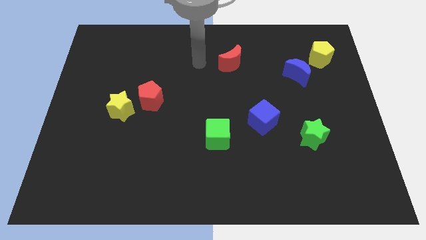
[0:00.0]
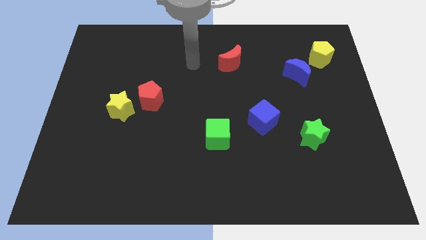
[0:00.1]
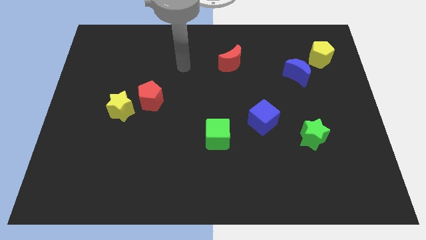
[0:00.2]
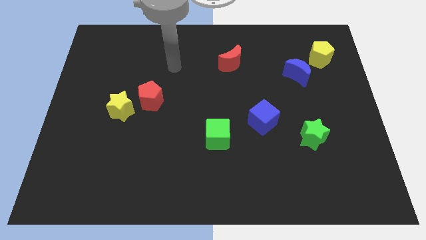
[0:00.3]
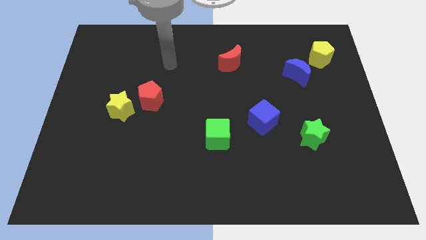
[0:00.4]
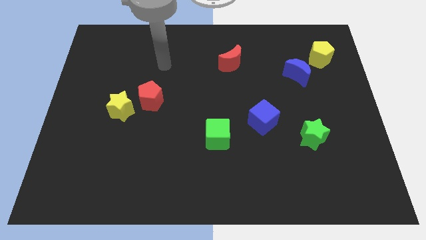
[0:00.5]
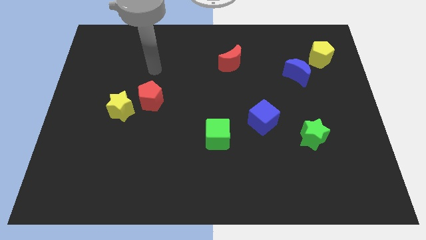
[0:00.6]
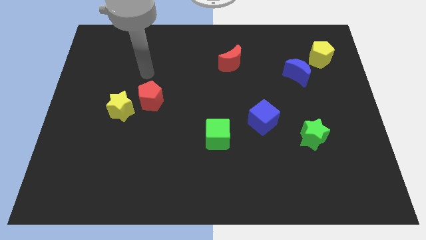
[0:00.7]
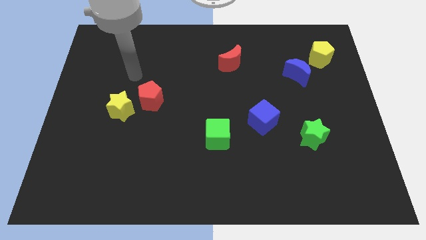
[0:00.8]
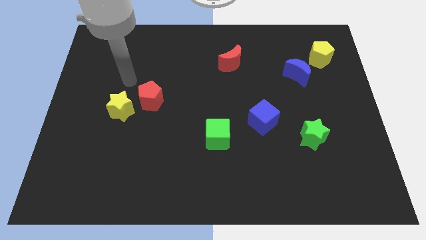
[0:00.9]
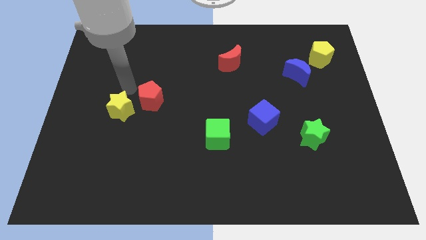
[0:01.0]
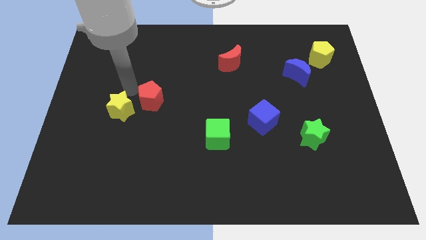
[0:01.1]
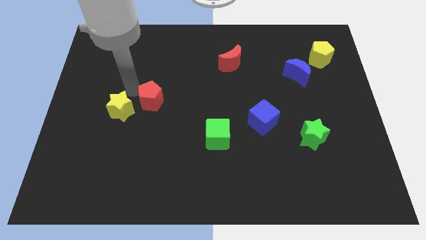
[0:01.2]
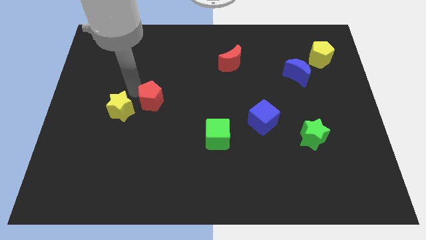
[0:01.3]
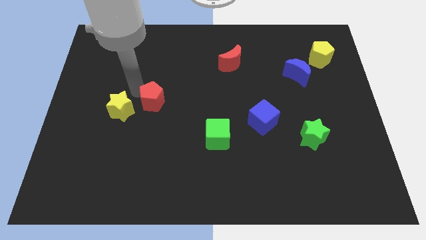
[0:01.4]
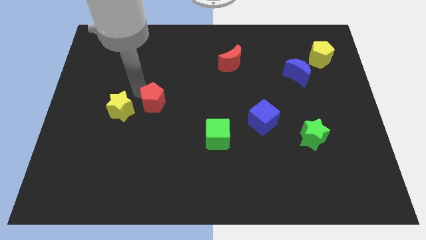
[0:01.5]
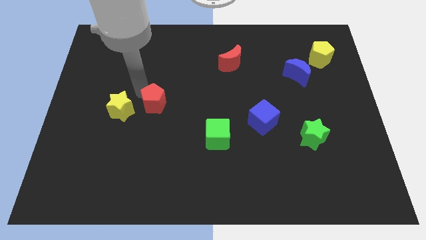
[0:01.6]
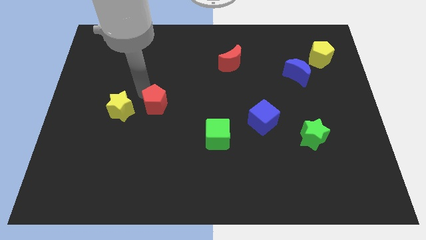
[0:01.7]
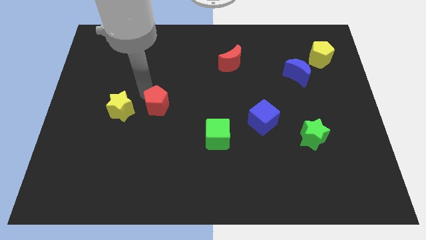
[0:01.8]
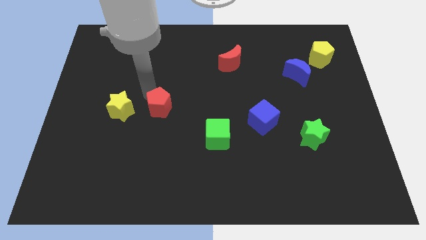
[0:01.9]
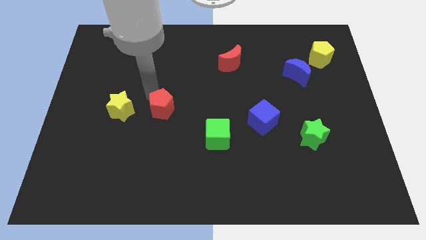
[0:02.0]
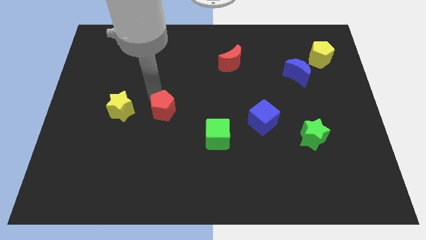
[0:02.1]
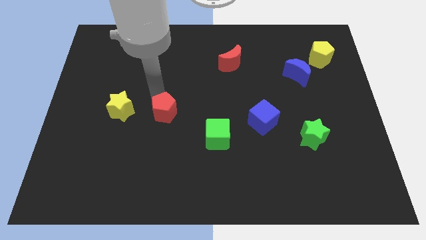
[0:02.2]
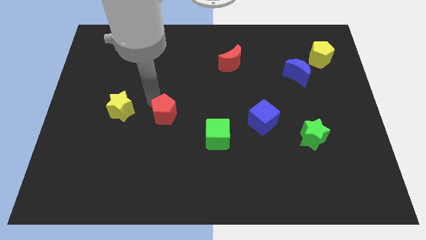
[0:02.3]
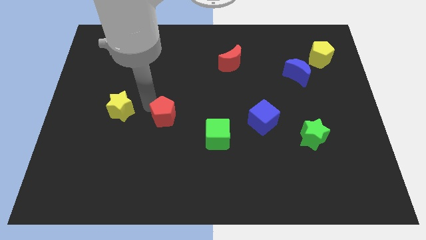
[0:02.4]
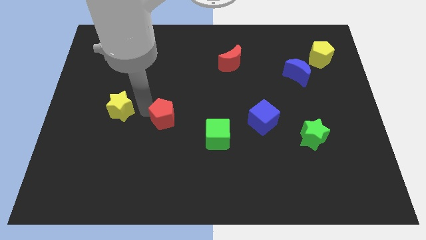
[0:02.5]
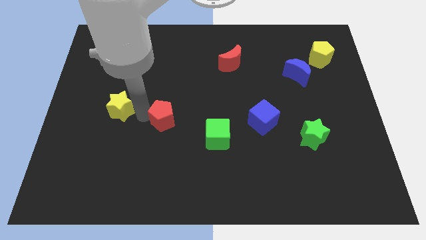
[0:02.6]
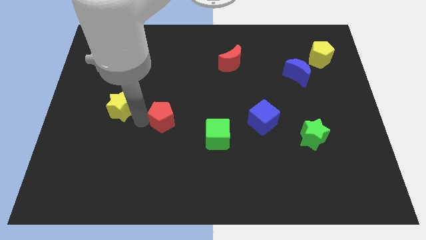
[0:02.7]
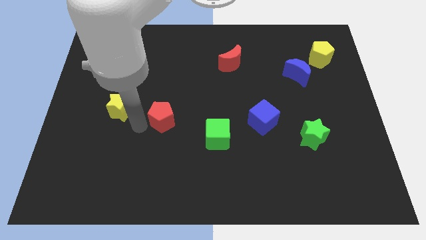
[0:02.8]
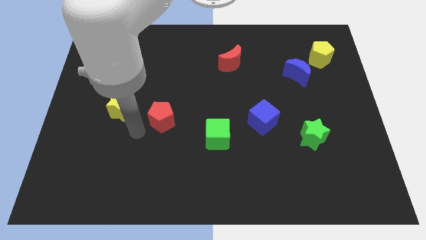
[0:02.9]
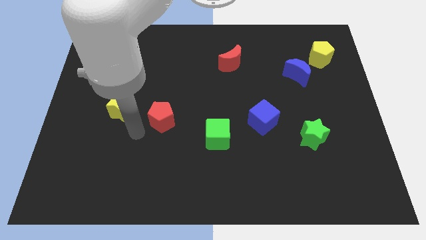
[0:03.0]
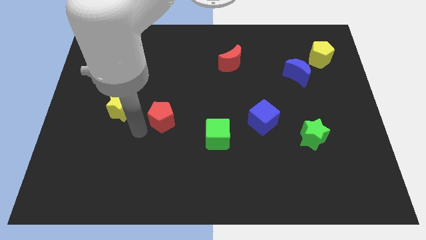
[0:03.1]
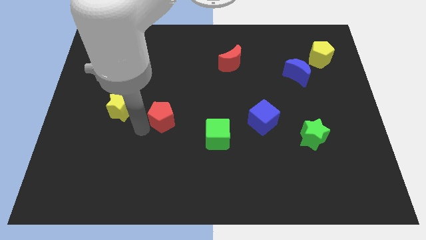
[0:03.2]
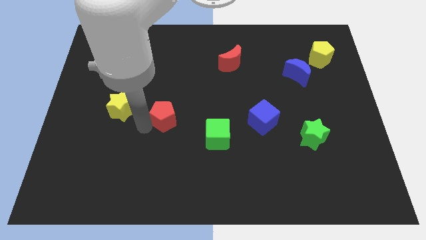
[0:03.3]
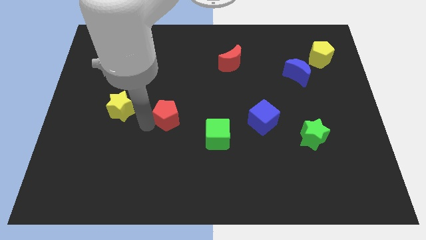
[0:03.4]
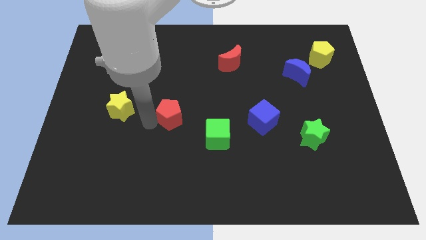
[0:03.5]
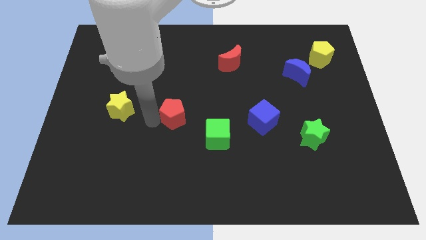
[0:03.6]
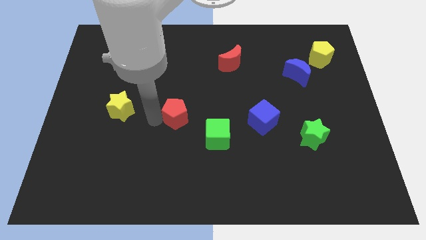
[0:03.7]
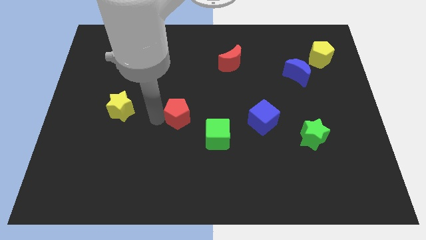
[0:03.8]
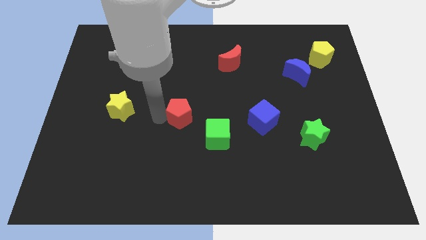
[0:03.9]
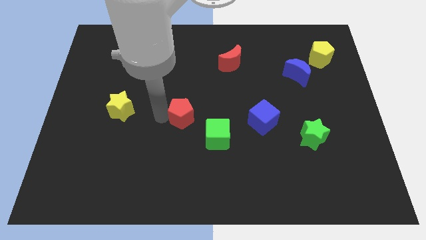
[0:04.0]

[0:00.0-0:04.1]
push the red pentagon to the right a little bit

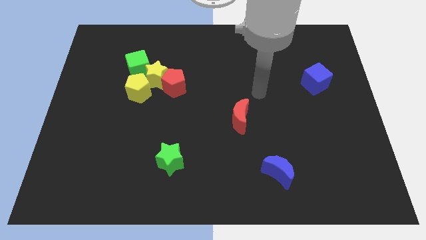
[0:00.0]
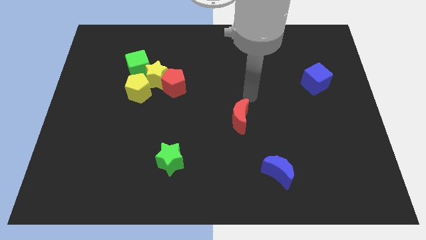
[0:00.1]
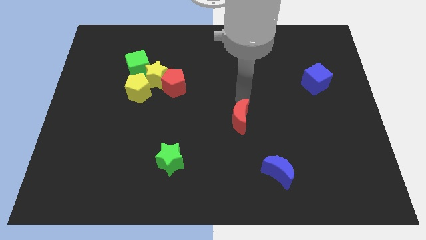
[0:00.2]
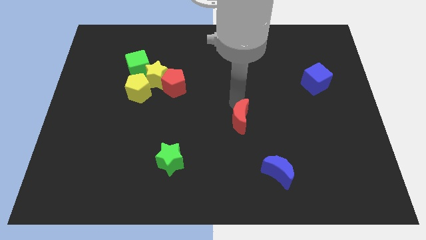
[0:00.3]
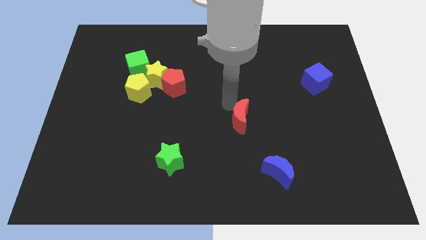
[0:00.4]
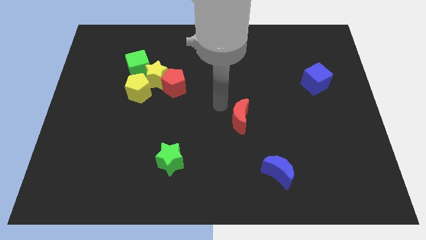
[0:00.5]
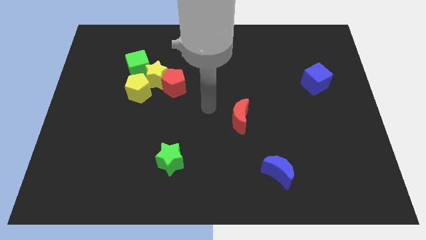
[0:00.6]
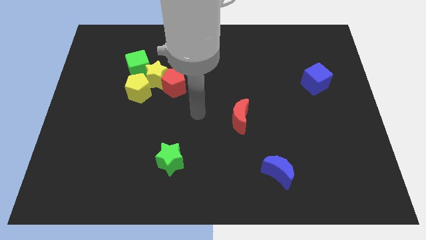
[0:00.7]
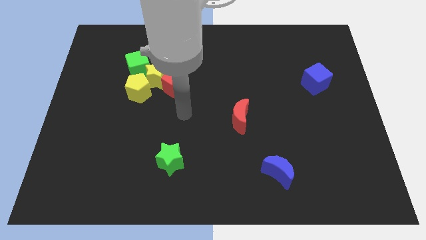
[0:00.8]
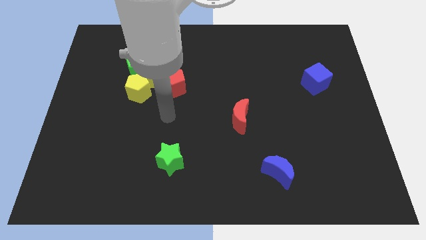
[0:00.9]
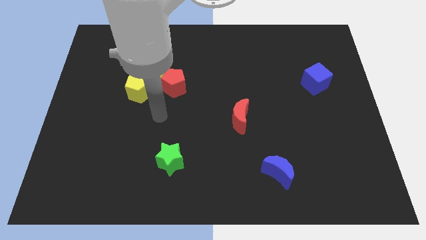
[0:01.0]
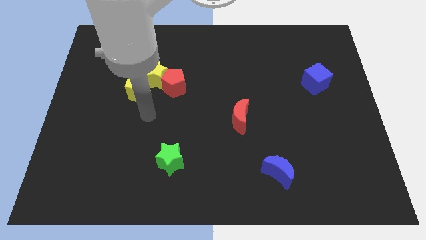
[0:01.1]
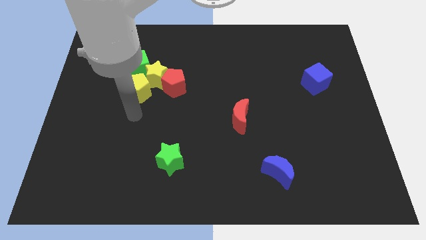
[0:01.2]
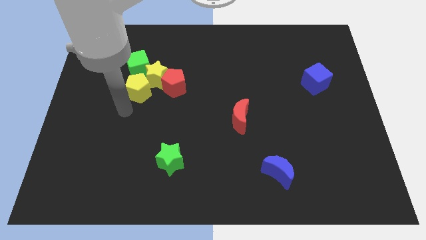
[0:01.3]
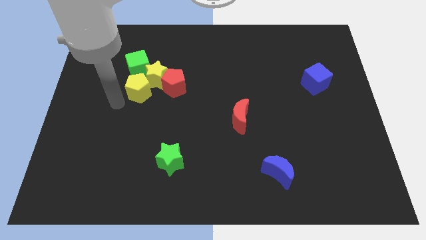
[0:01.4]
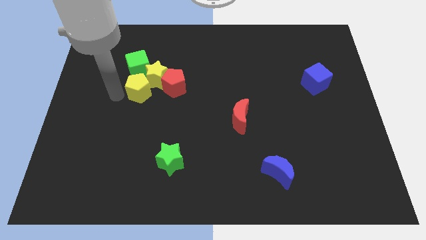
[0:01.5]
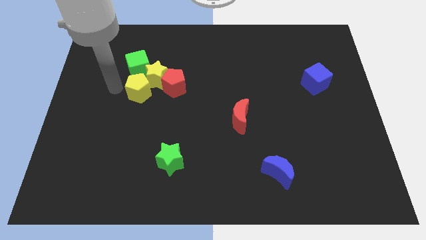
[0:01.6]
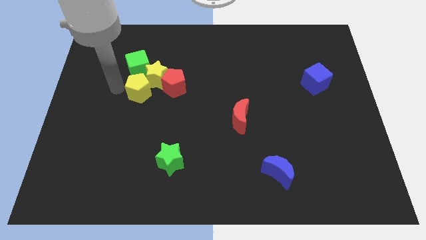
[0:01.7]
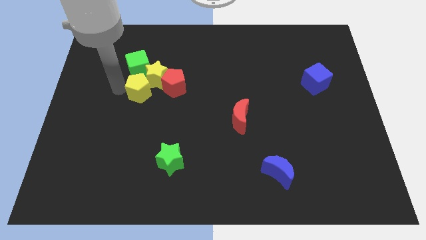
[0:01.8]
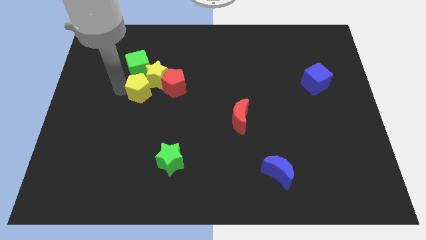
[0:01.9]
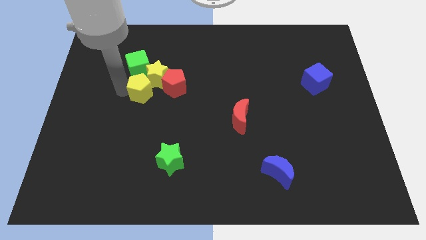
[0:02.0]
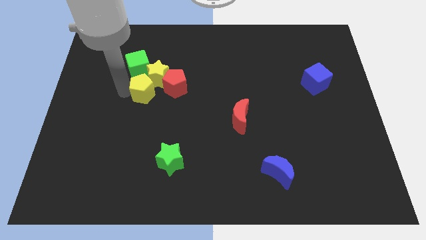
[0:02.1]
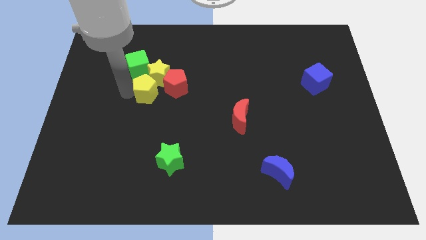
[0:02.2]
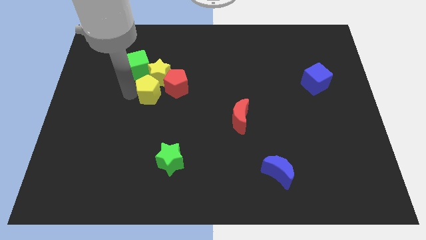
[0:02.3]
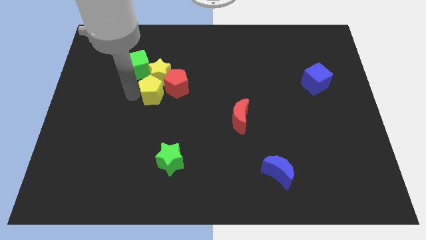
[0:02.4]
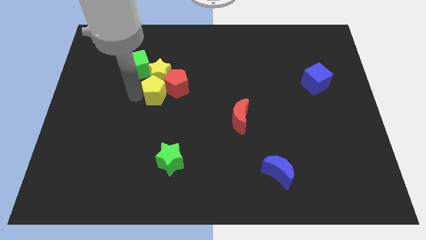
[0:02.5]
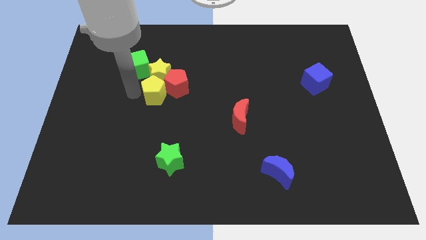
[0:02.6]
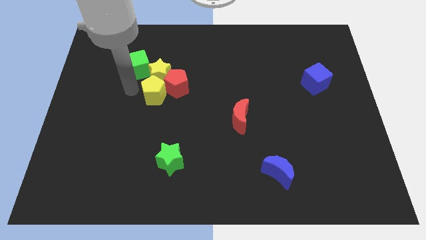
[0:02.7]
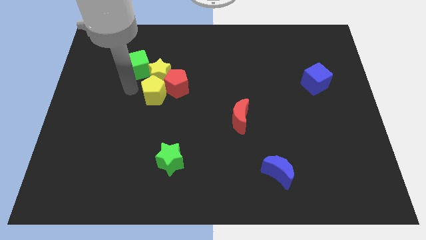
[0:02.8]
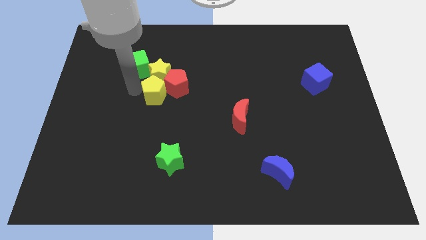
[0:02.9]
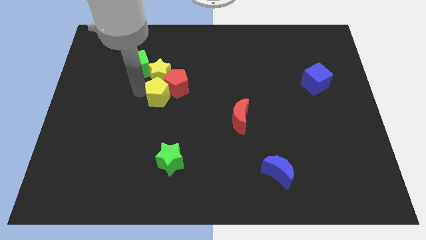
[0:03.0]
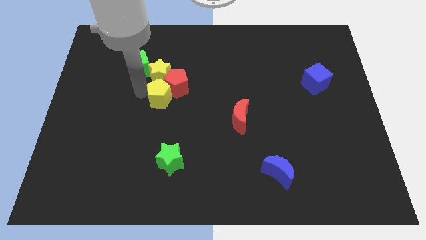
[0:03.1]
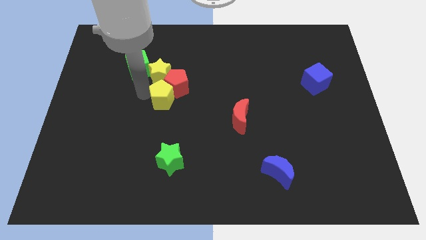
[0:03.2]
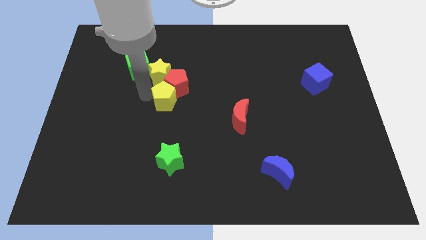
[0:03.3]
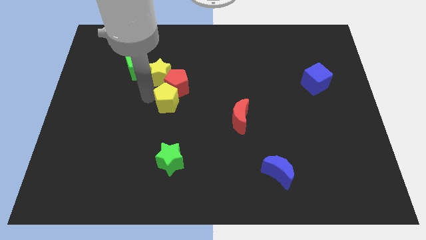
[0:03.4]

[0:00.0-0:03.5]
slightly push the yellow pentagon to the right

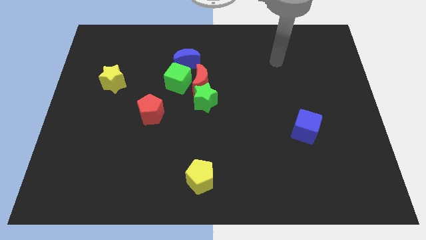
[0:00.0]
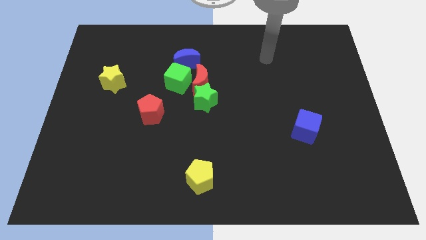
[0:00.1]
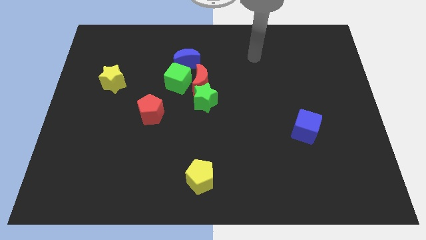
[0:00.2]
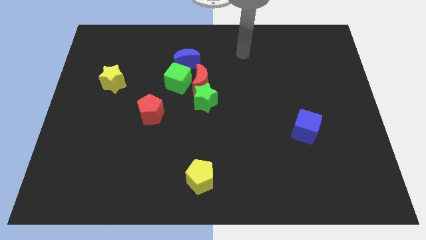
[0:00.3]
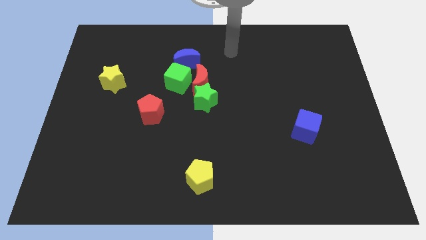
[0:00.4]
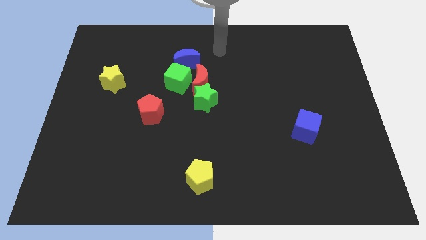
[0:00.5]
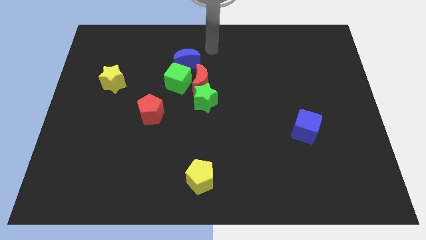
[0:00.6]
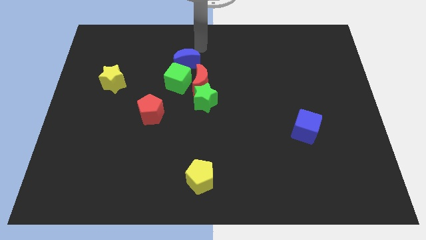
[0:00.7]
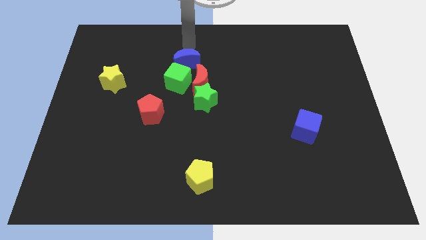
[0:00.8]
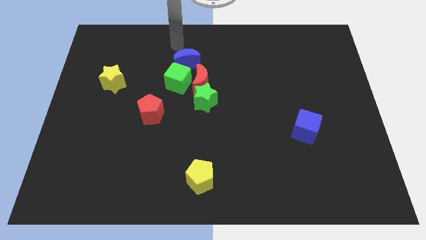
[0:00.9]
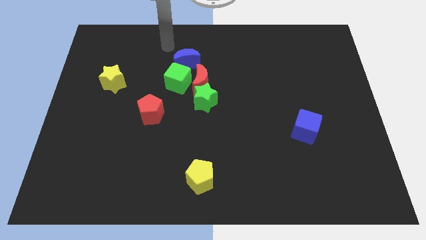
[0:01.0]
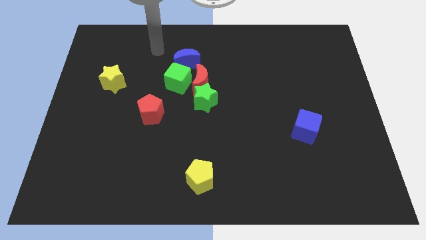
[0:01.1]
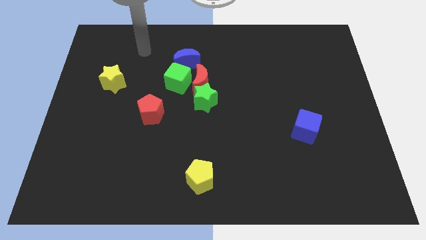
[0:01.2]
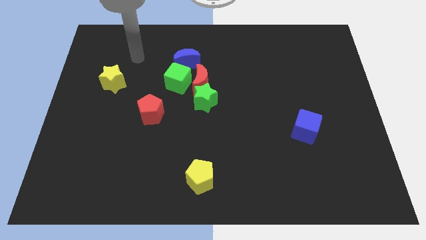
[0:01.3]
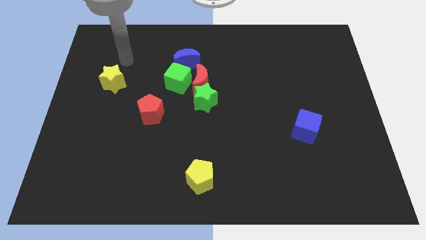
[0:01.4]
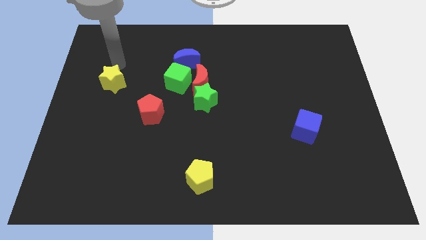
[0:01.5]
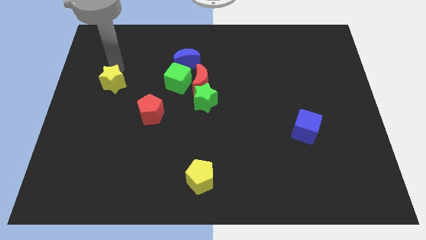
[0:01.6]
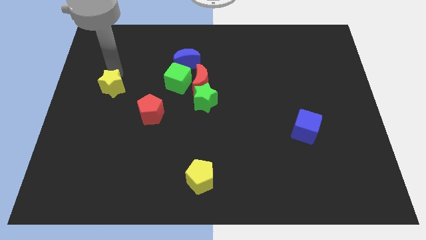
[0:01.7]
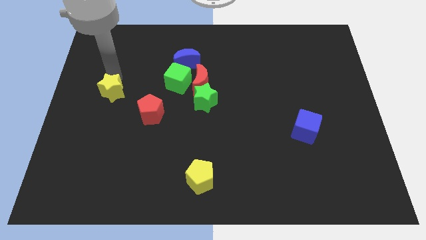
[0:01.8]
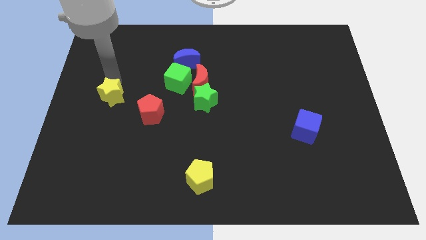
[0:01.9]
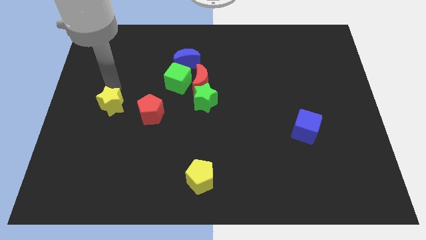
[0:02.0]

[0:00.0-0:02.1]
slide the yellow star downwards a little bit
